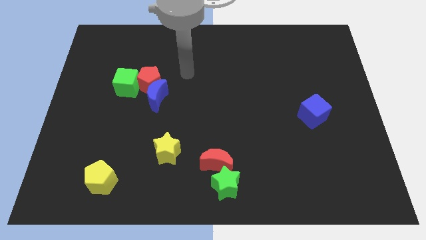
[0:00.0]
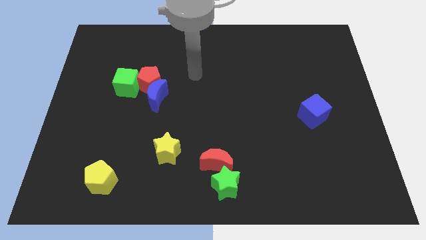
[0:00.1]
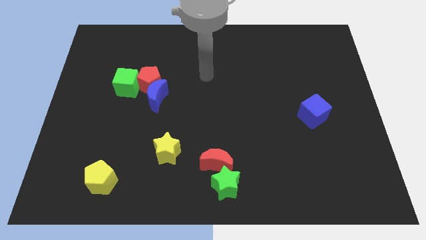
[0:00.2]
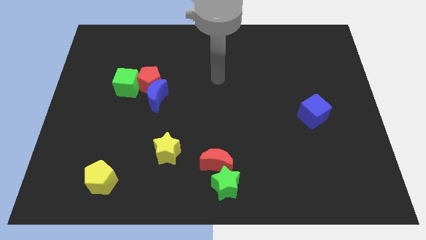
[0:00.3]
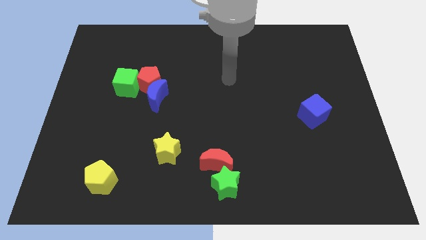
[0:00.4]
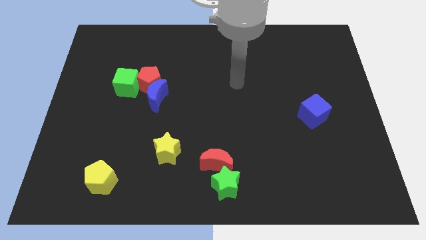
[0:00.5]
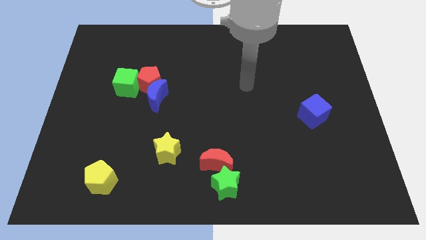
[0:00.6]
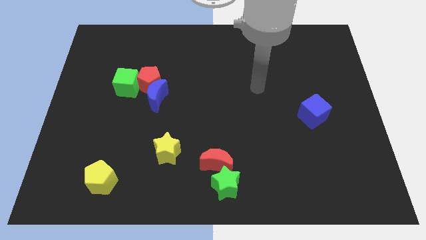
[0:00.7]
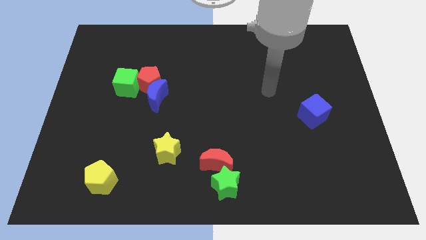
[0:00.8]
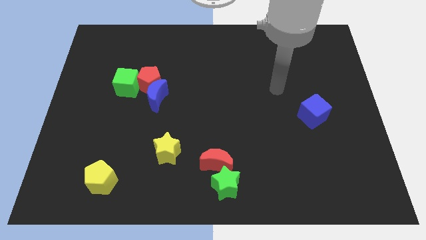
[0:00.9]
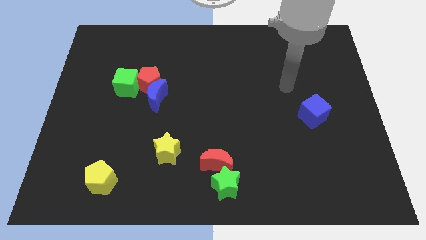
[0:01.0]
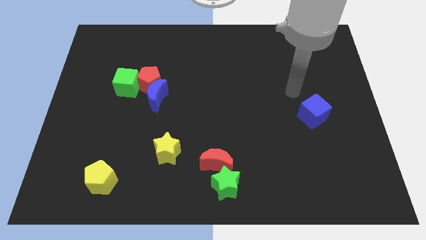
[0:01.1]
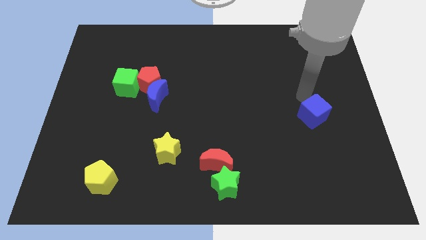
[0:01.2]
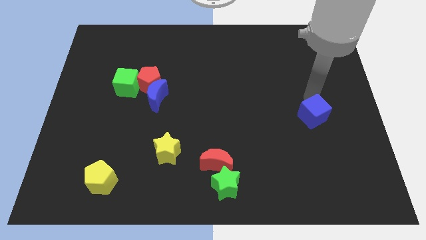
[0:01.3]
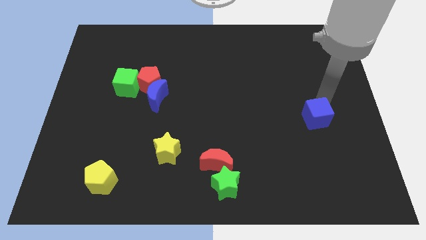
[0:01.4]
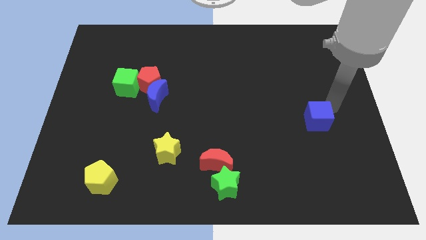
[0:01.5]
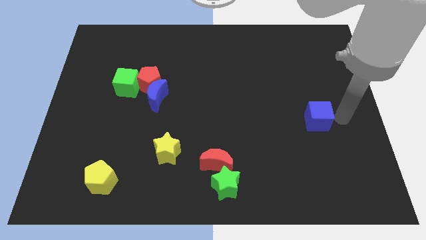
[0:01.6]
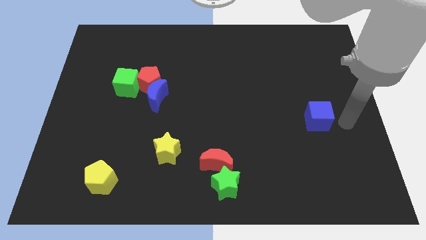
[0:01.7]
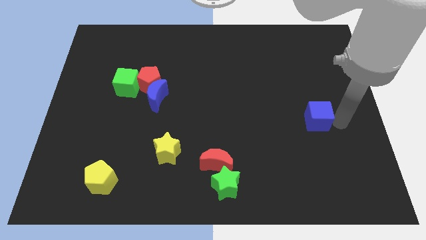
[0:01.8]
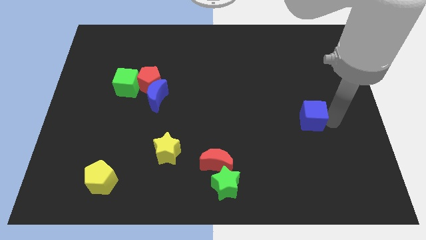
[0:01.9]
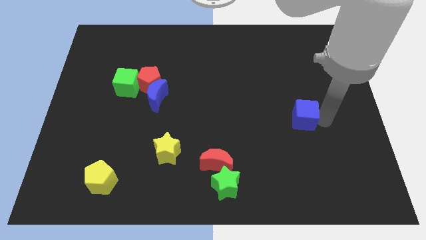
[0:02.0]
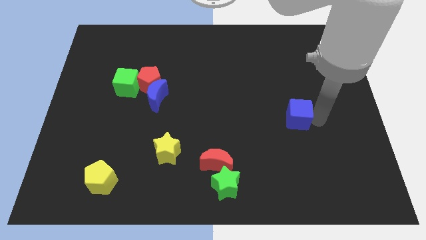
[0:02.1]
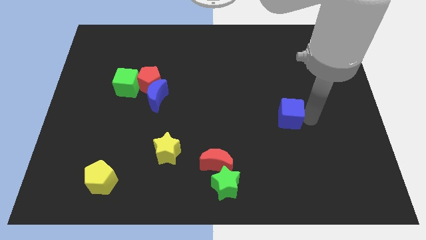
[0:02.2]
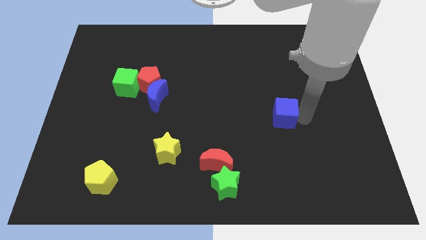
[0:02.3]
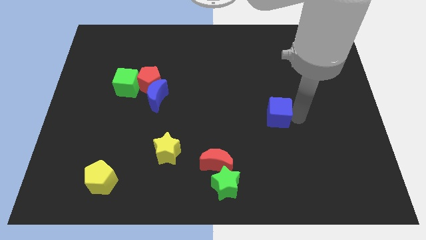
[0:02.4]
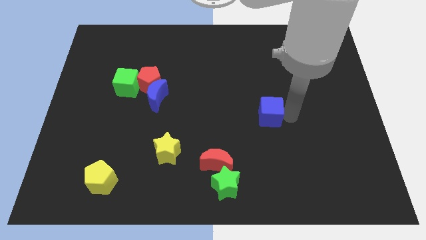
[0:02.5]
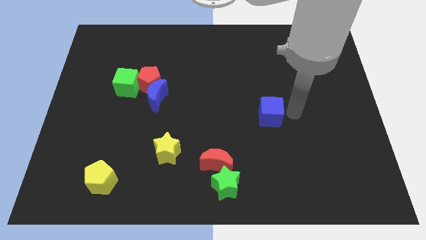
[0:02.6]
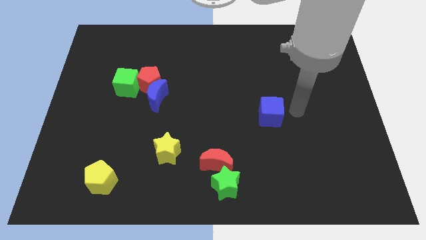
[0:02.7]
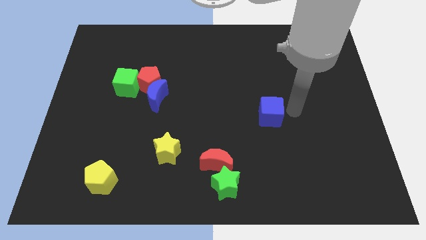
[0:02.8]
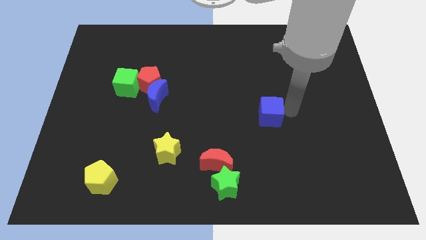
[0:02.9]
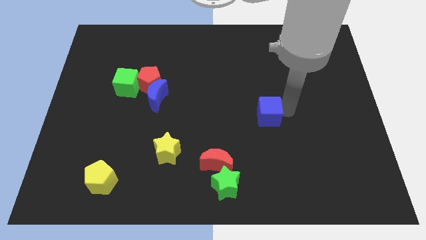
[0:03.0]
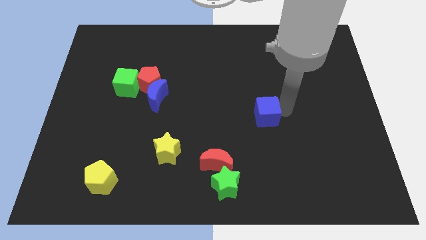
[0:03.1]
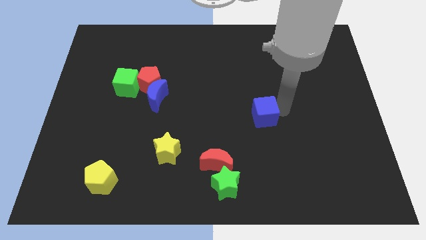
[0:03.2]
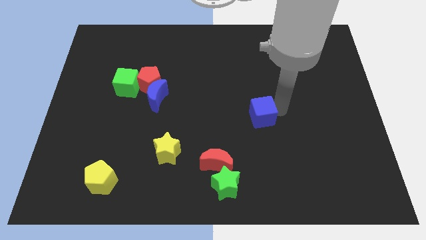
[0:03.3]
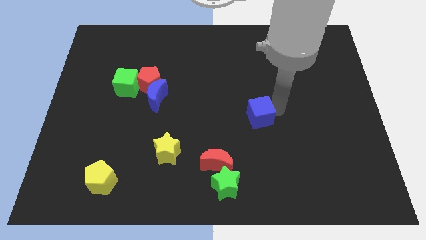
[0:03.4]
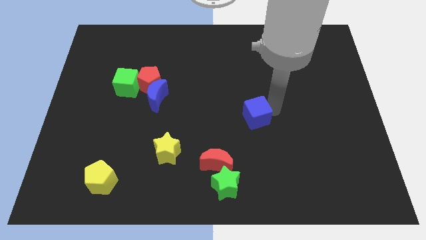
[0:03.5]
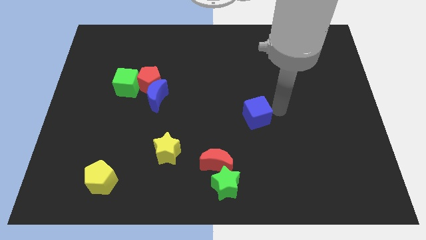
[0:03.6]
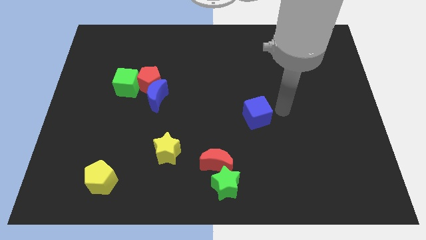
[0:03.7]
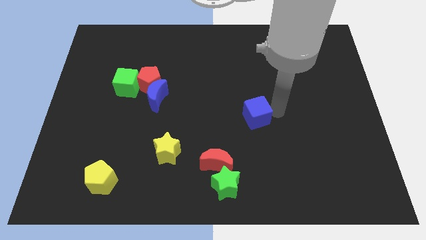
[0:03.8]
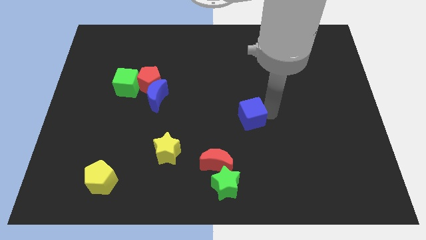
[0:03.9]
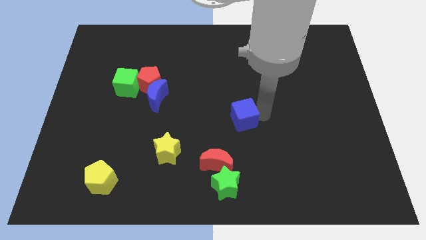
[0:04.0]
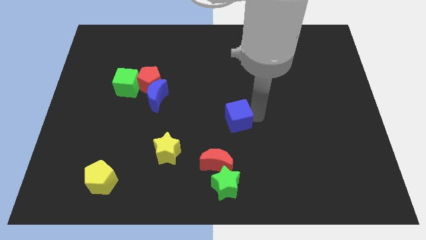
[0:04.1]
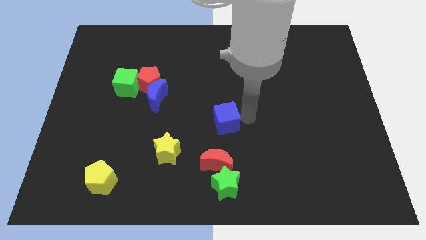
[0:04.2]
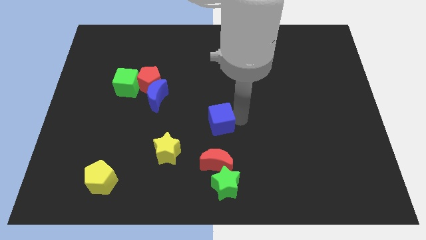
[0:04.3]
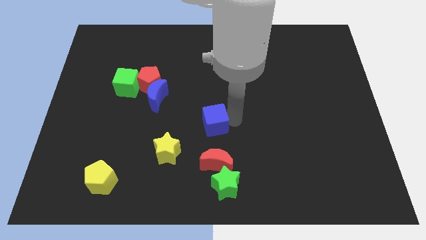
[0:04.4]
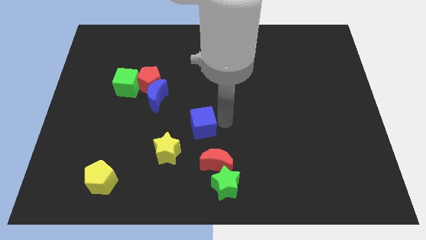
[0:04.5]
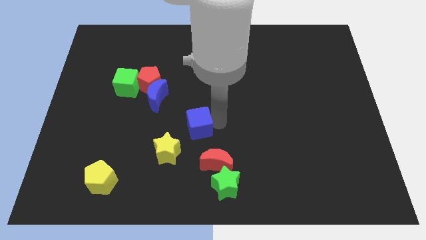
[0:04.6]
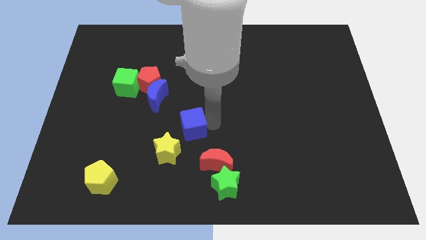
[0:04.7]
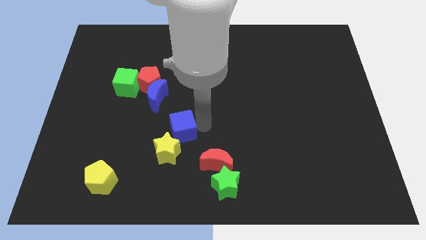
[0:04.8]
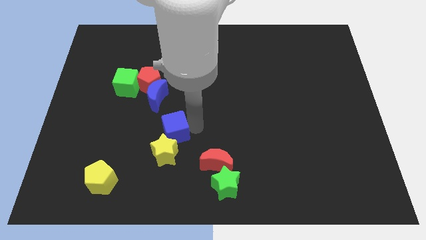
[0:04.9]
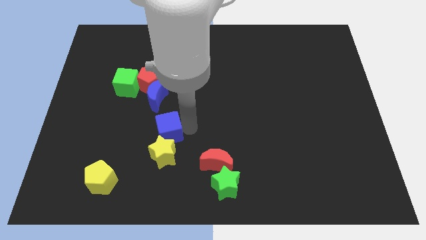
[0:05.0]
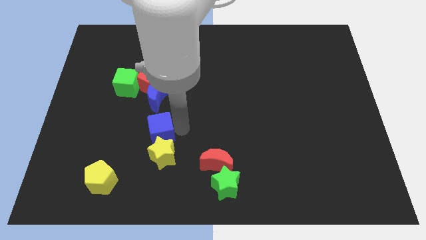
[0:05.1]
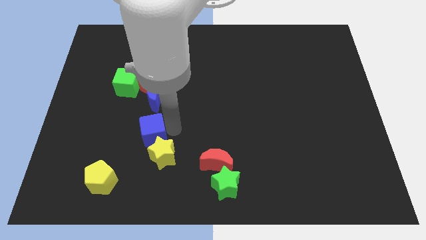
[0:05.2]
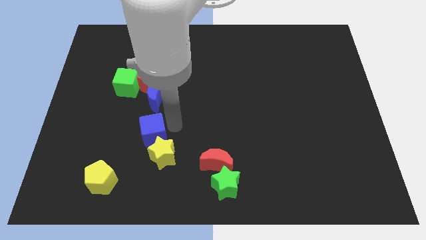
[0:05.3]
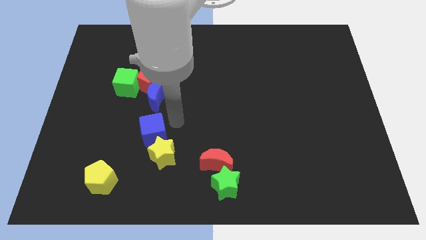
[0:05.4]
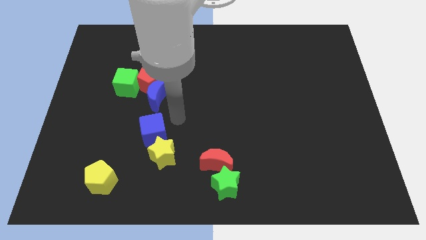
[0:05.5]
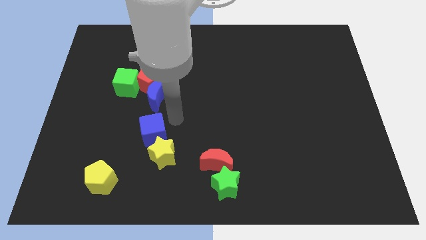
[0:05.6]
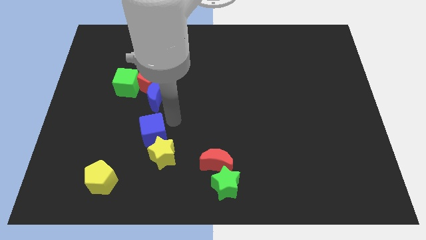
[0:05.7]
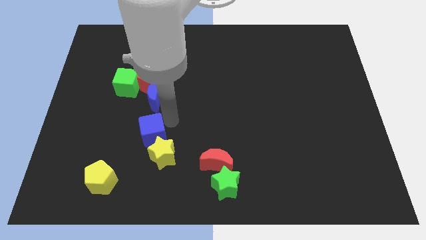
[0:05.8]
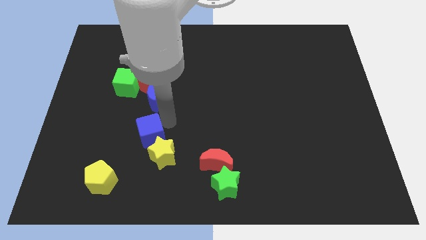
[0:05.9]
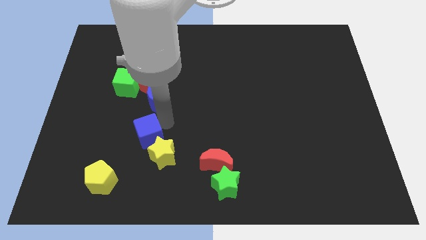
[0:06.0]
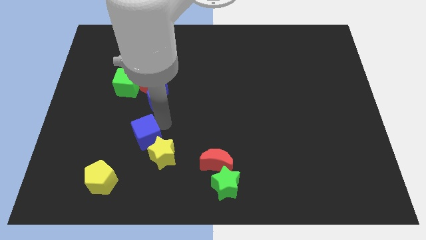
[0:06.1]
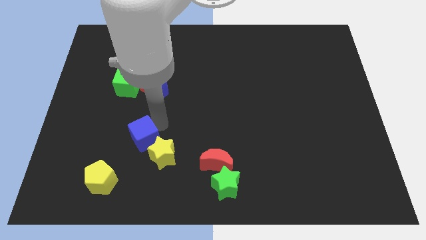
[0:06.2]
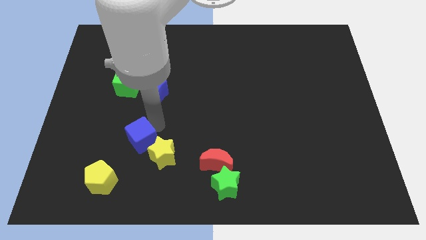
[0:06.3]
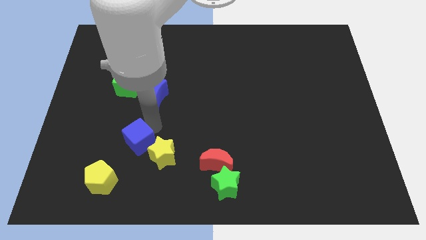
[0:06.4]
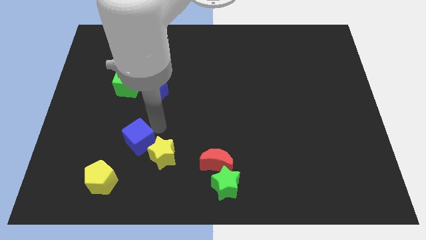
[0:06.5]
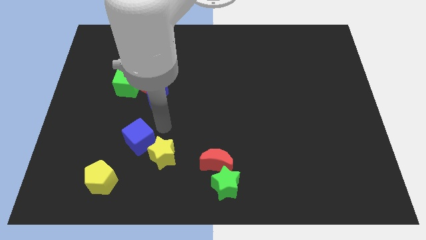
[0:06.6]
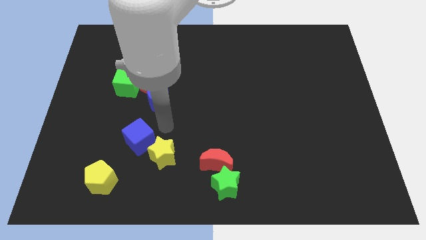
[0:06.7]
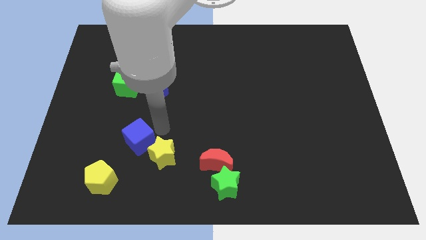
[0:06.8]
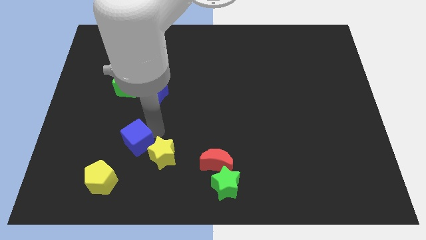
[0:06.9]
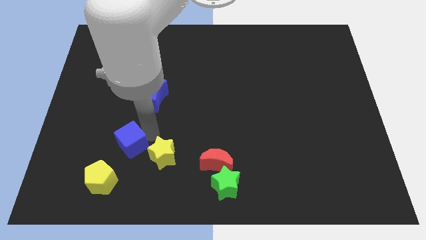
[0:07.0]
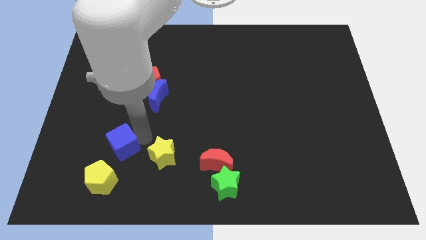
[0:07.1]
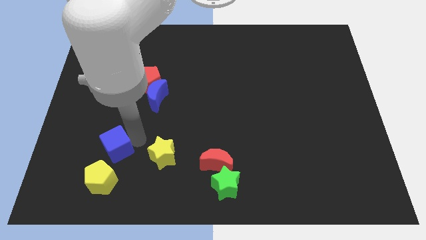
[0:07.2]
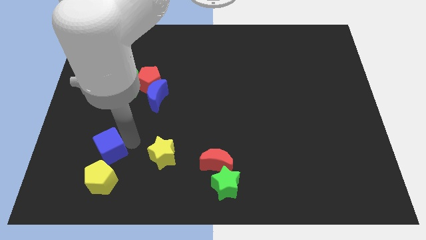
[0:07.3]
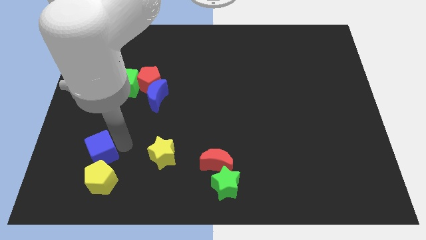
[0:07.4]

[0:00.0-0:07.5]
push the blue cube diagonally up and to the left of the yellow pentagon

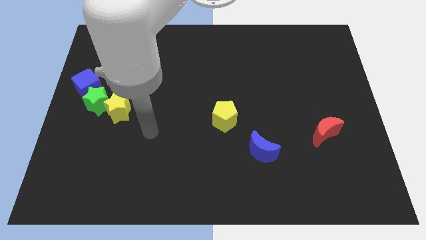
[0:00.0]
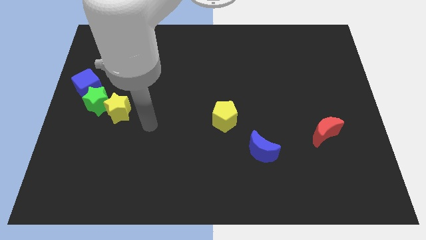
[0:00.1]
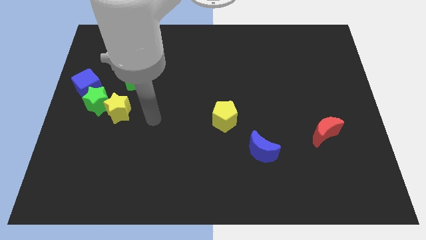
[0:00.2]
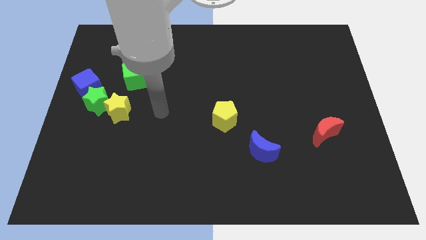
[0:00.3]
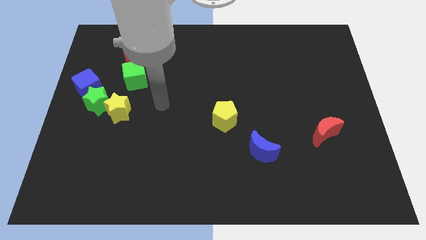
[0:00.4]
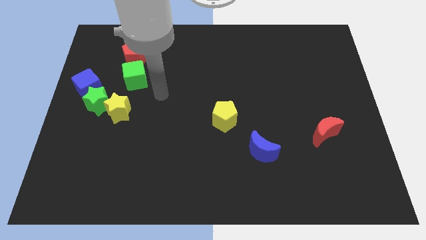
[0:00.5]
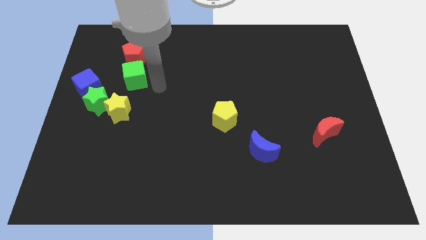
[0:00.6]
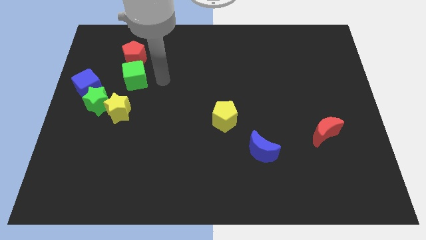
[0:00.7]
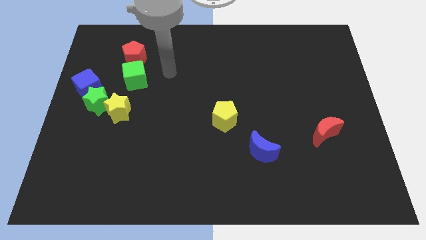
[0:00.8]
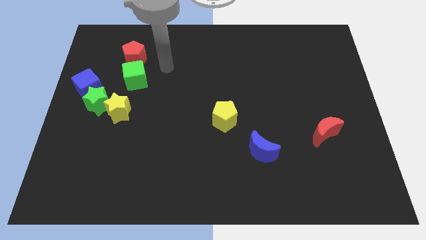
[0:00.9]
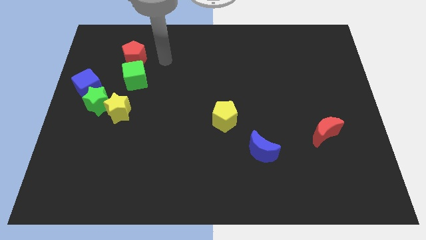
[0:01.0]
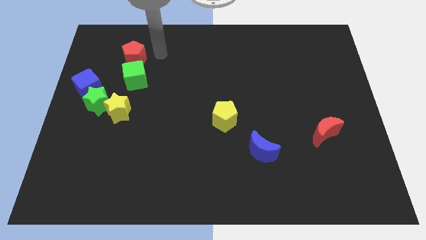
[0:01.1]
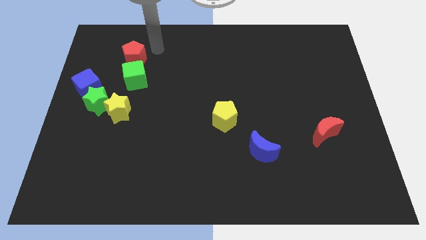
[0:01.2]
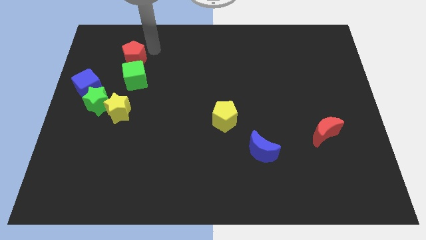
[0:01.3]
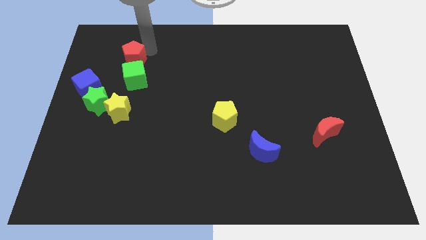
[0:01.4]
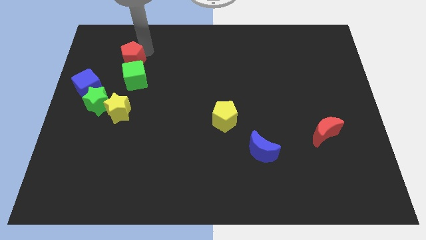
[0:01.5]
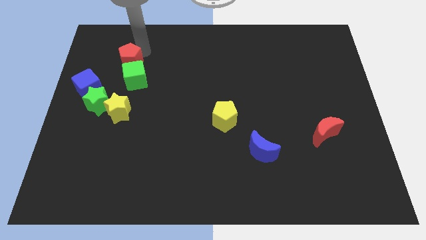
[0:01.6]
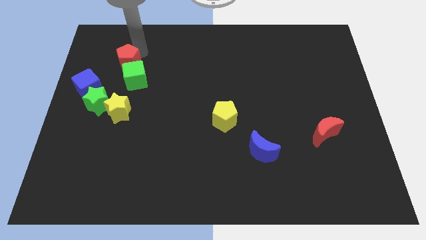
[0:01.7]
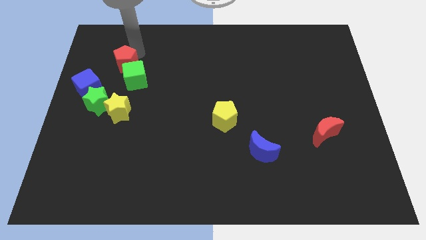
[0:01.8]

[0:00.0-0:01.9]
push the red pentagon to the top side of the green star
